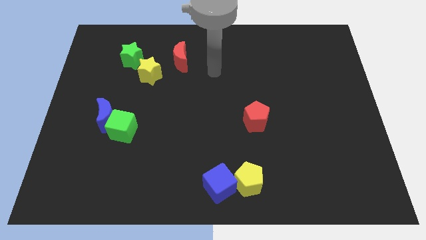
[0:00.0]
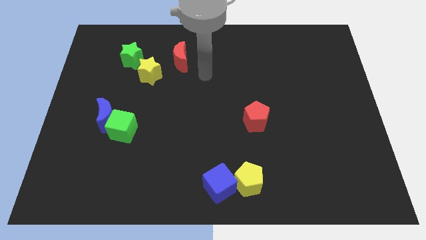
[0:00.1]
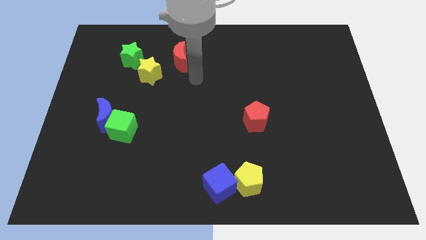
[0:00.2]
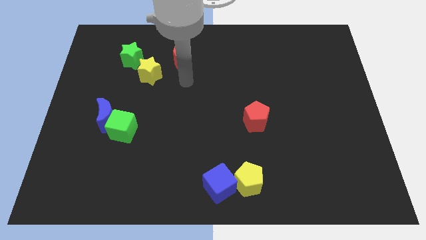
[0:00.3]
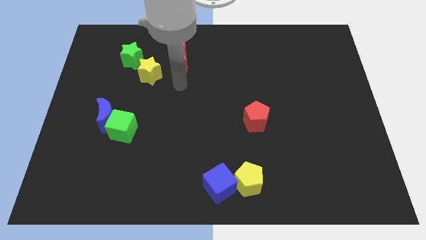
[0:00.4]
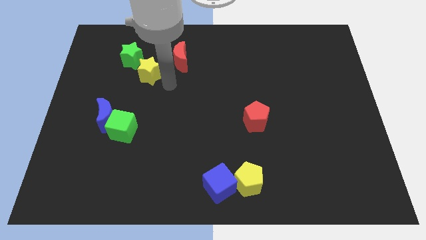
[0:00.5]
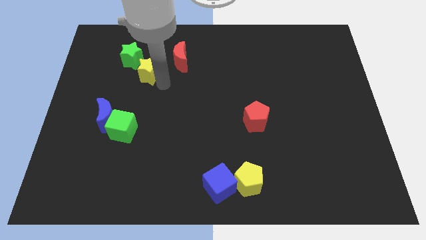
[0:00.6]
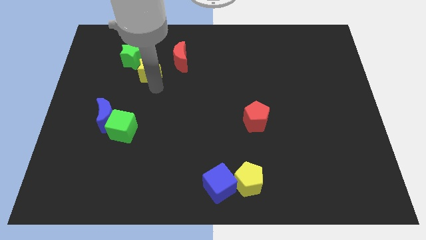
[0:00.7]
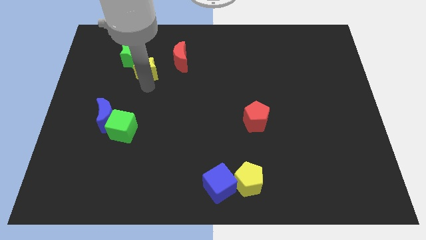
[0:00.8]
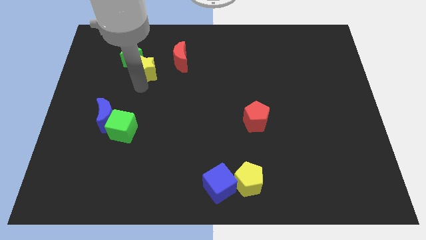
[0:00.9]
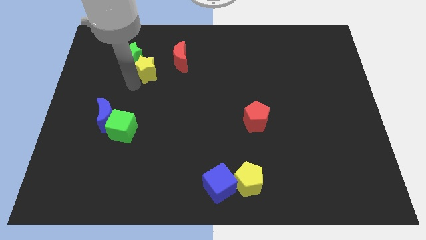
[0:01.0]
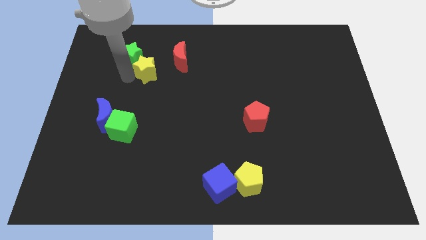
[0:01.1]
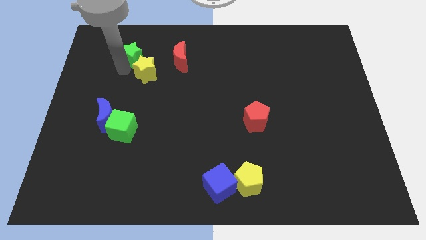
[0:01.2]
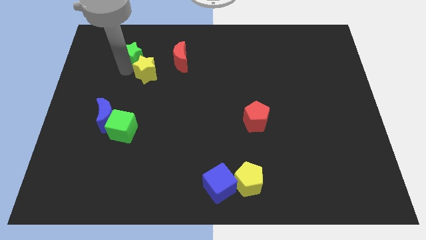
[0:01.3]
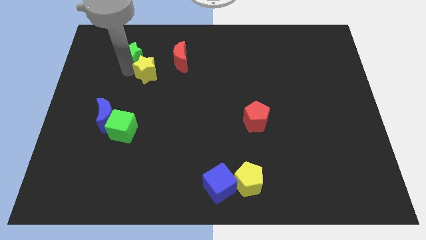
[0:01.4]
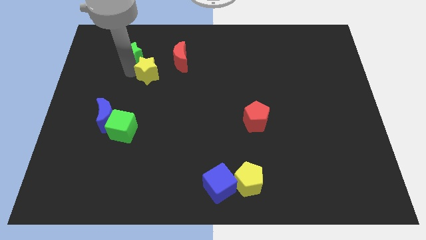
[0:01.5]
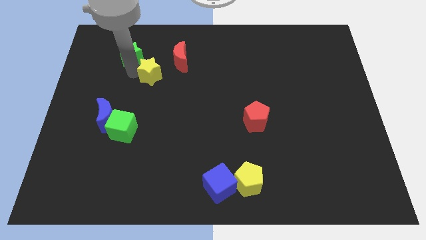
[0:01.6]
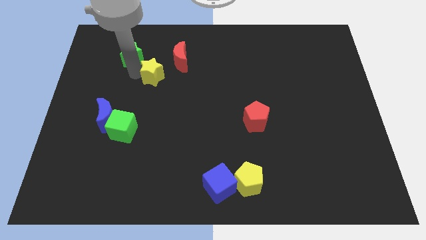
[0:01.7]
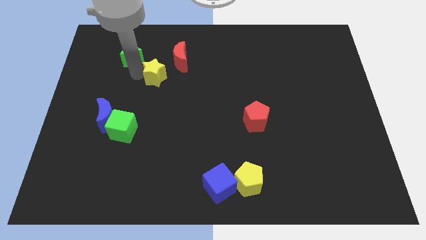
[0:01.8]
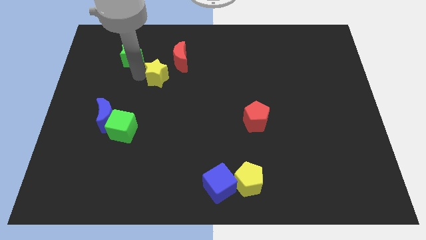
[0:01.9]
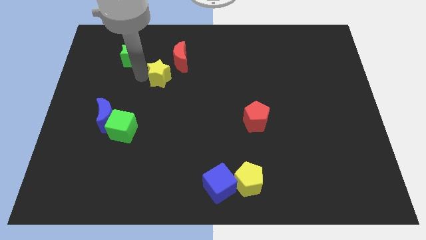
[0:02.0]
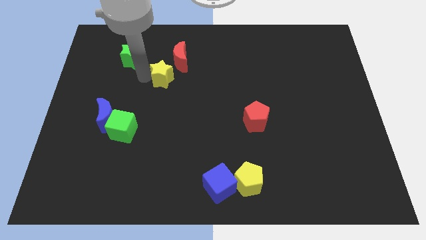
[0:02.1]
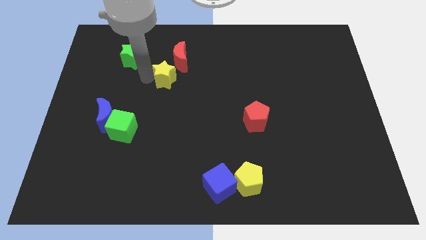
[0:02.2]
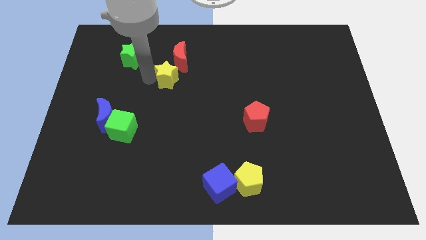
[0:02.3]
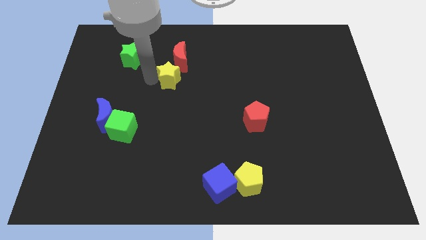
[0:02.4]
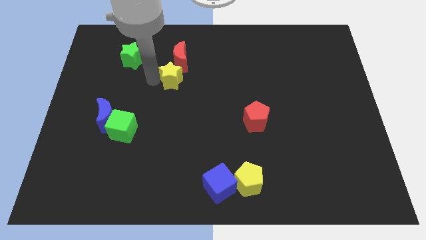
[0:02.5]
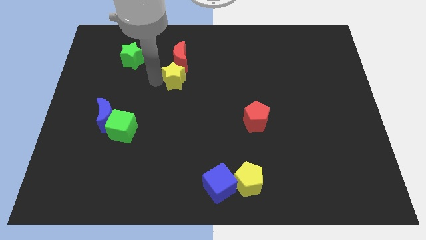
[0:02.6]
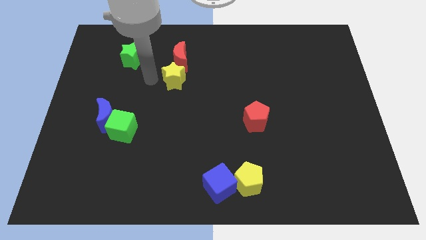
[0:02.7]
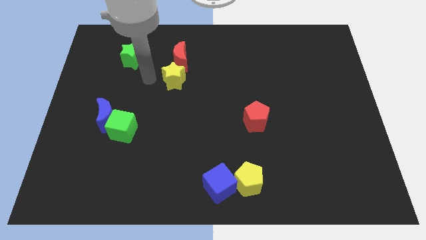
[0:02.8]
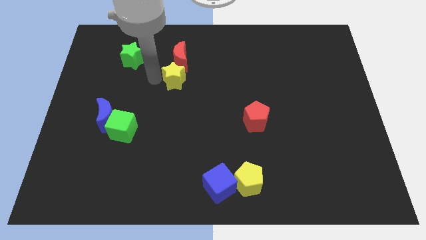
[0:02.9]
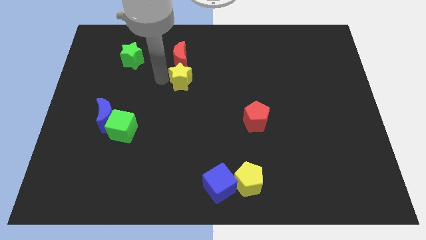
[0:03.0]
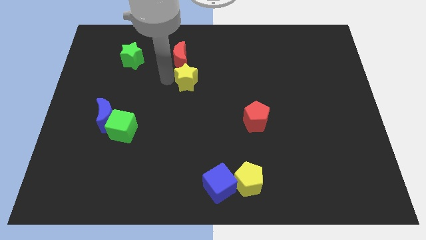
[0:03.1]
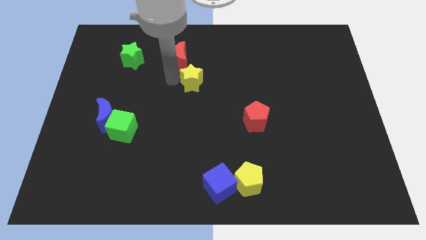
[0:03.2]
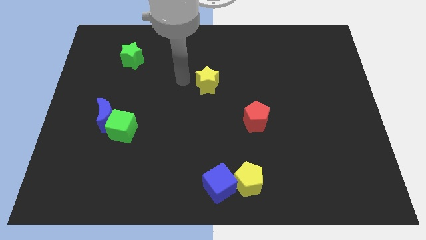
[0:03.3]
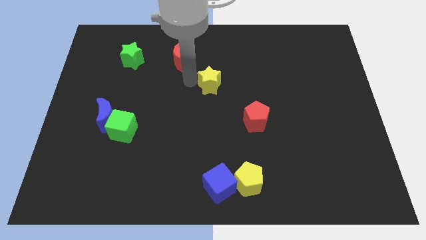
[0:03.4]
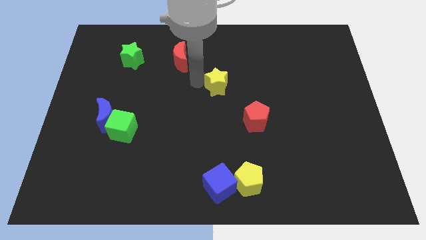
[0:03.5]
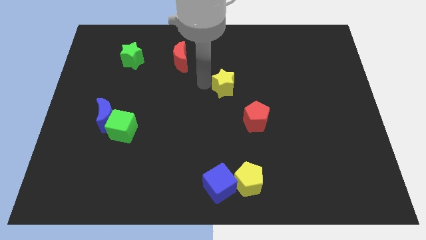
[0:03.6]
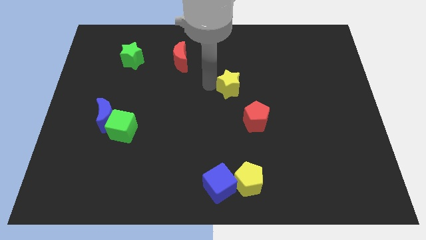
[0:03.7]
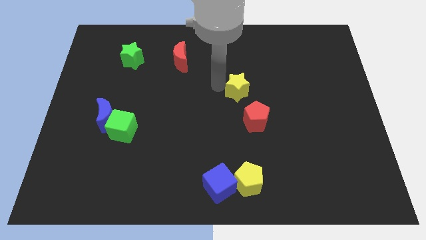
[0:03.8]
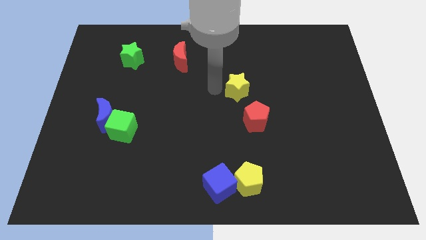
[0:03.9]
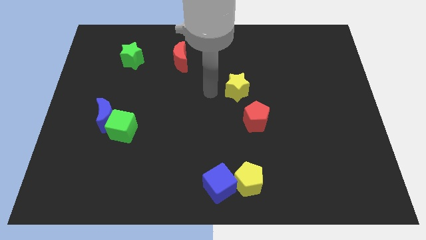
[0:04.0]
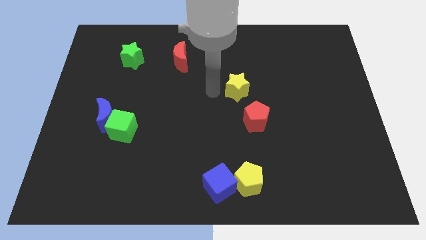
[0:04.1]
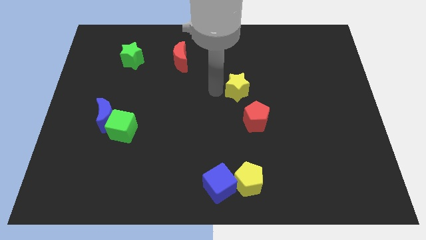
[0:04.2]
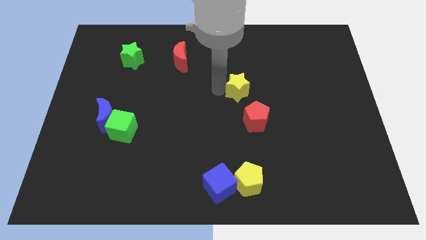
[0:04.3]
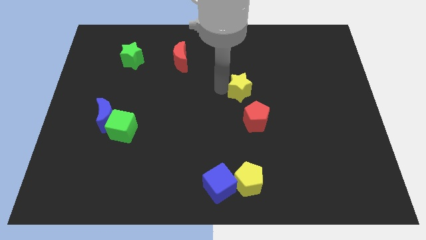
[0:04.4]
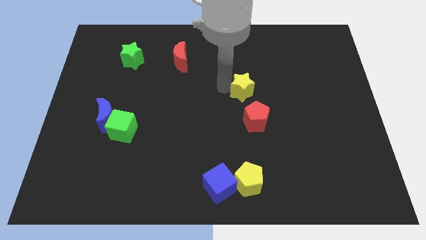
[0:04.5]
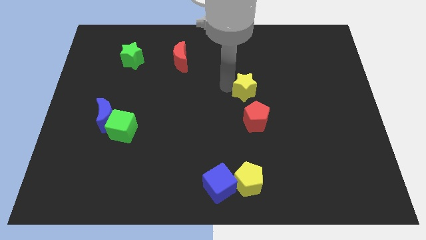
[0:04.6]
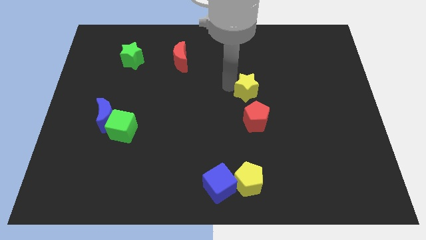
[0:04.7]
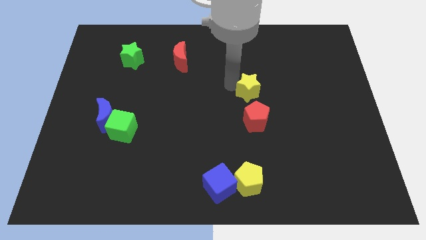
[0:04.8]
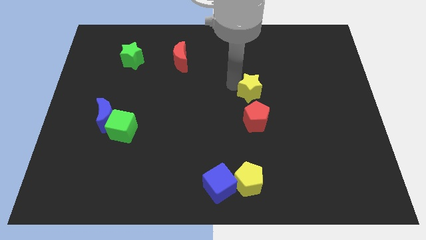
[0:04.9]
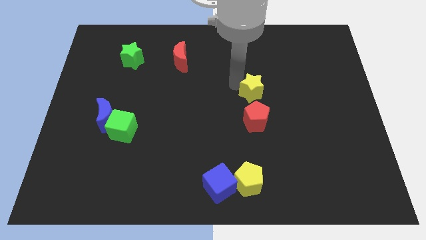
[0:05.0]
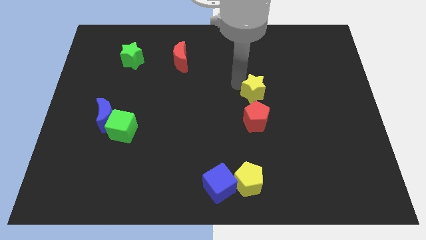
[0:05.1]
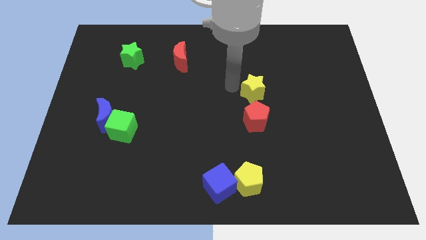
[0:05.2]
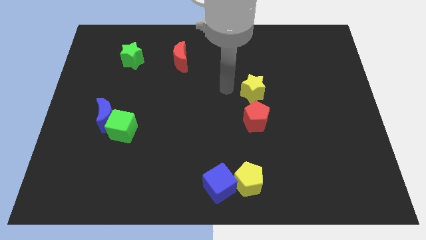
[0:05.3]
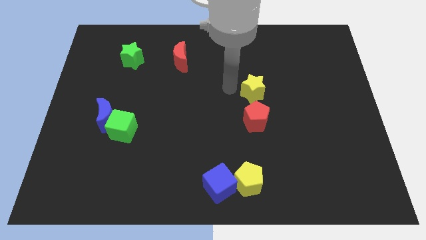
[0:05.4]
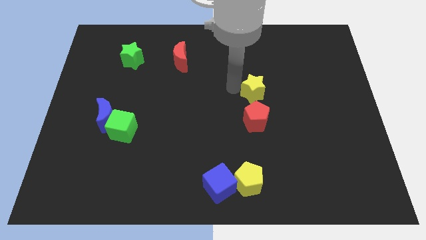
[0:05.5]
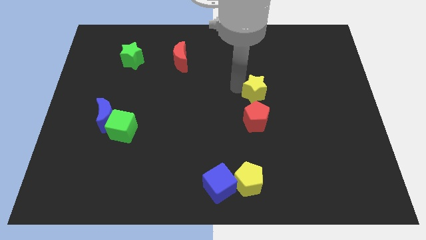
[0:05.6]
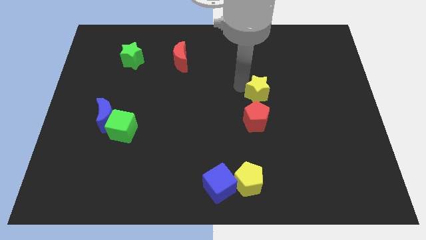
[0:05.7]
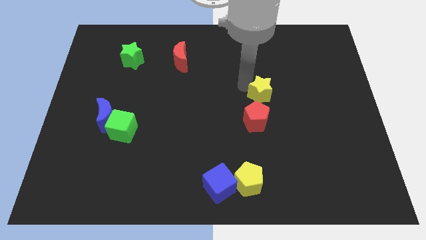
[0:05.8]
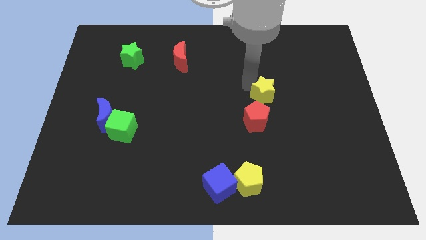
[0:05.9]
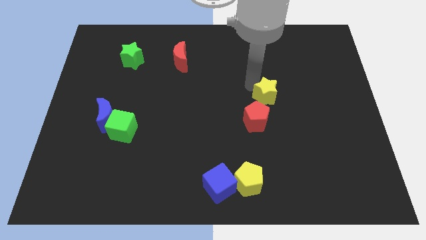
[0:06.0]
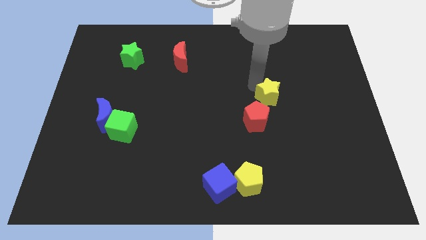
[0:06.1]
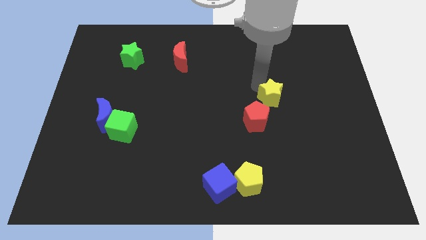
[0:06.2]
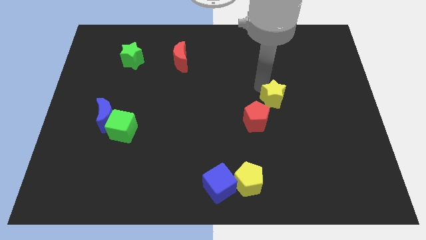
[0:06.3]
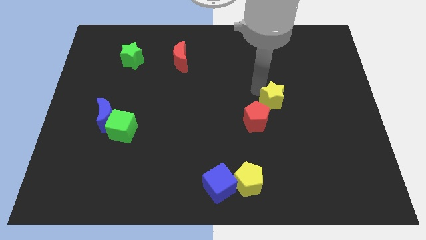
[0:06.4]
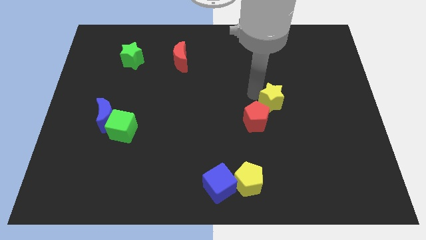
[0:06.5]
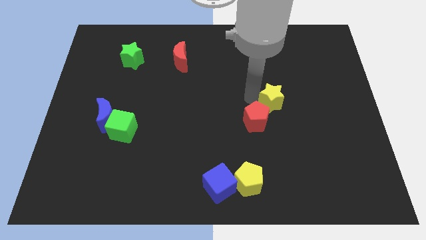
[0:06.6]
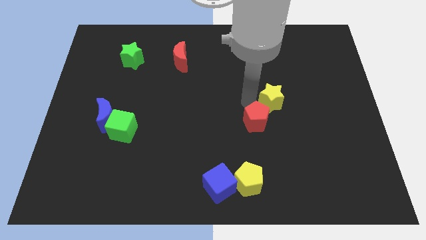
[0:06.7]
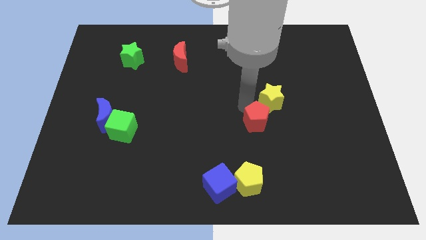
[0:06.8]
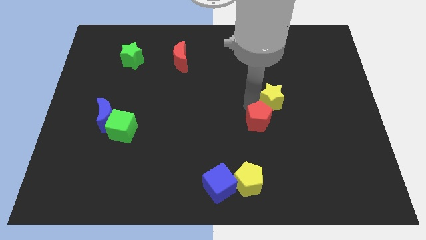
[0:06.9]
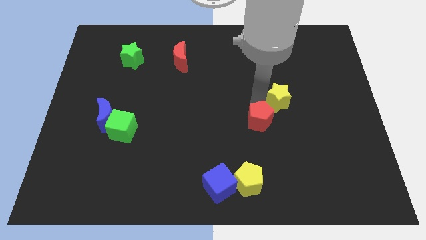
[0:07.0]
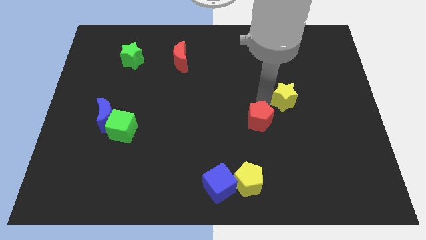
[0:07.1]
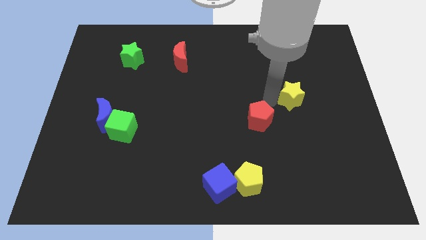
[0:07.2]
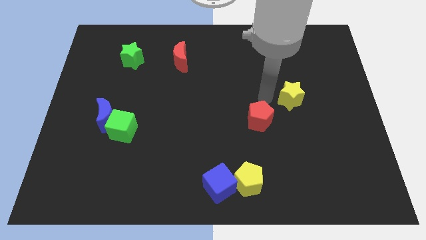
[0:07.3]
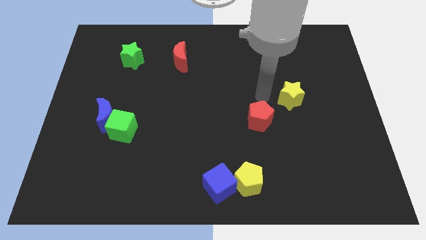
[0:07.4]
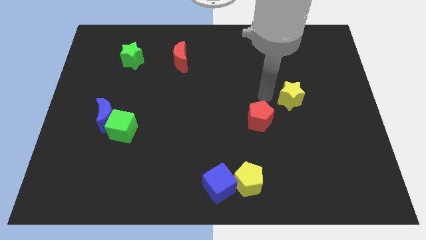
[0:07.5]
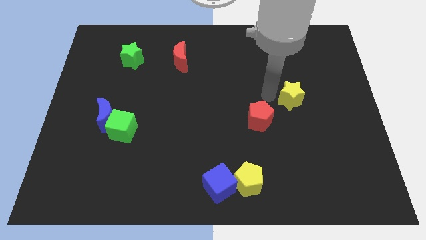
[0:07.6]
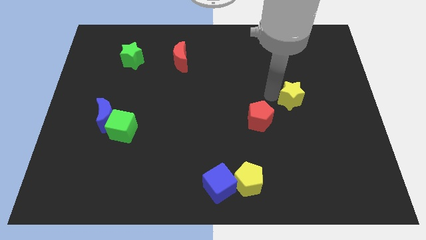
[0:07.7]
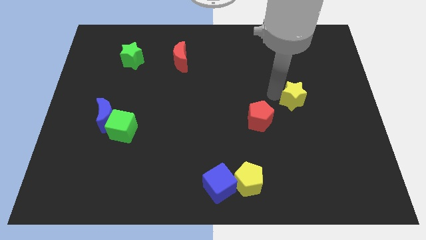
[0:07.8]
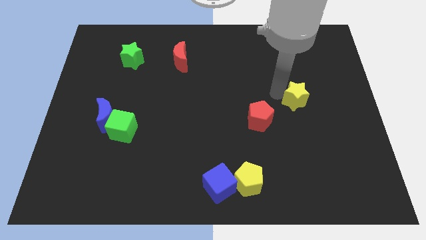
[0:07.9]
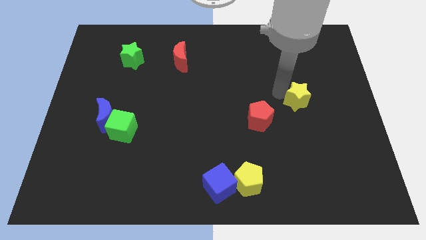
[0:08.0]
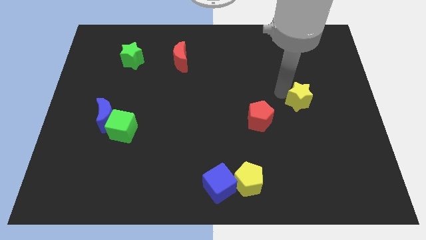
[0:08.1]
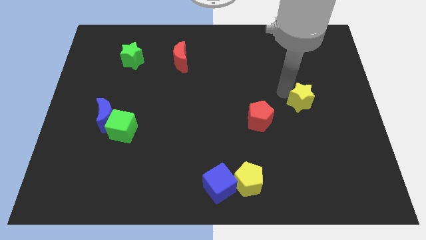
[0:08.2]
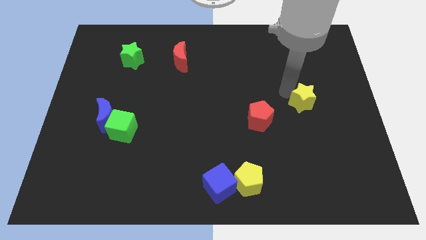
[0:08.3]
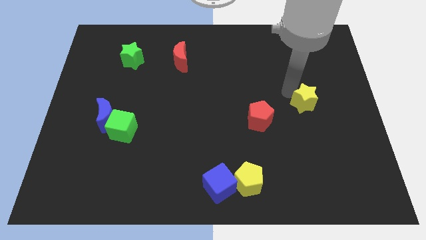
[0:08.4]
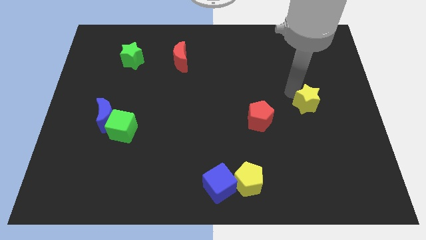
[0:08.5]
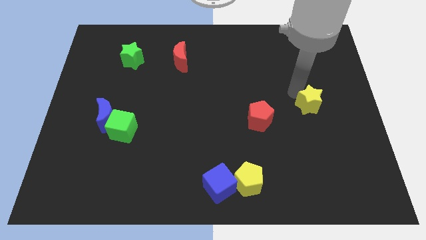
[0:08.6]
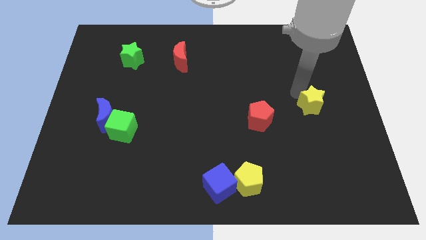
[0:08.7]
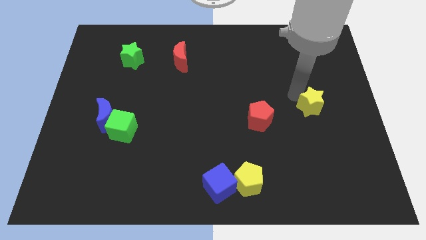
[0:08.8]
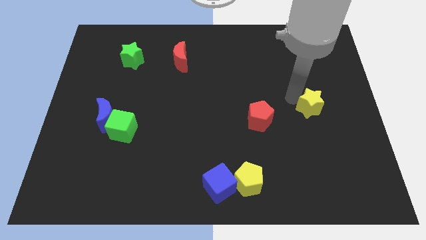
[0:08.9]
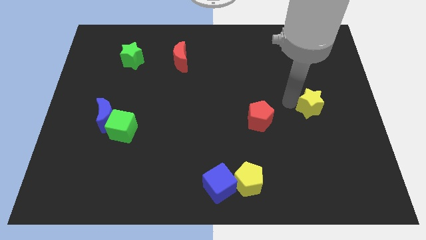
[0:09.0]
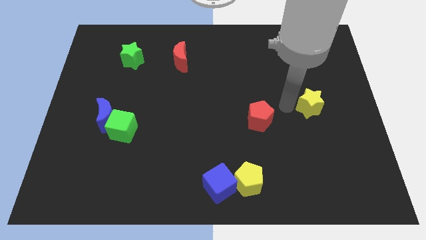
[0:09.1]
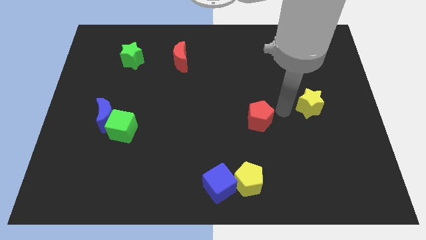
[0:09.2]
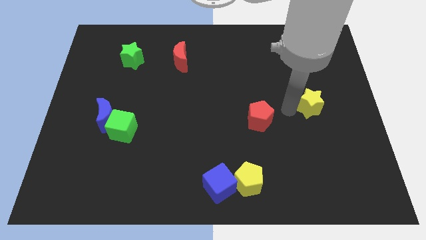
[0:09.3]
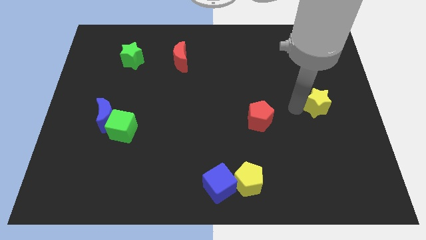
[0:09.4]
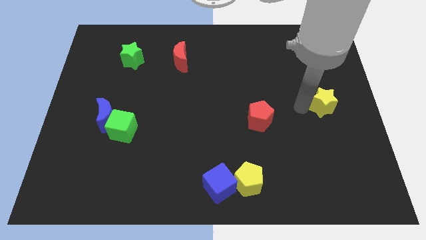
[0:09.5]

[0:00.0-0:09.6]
put the yellow star to the right side
